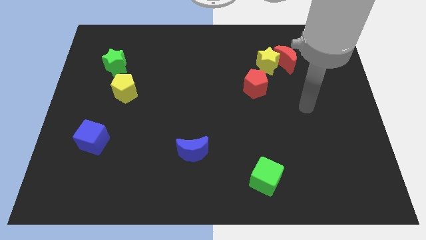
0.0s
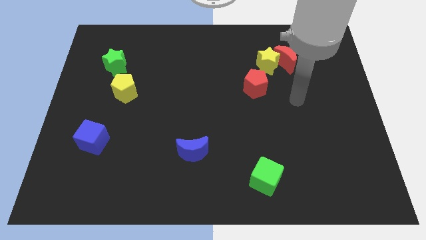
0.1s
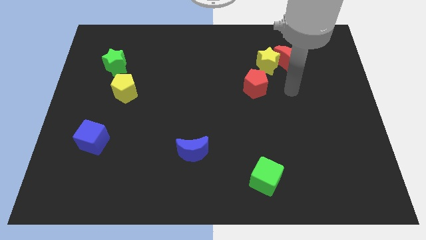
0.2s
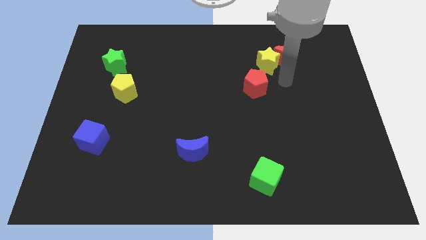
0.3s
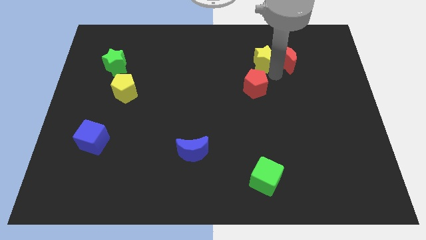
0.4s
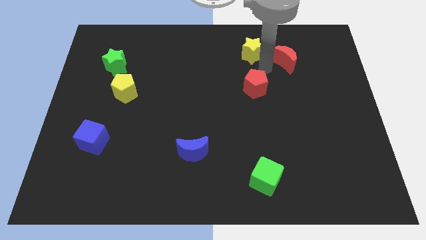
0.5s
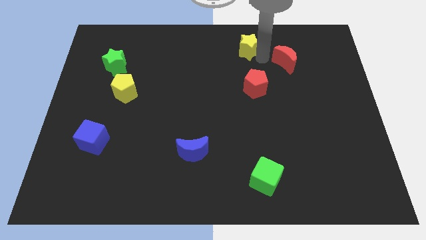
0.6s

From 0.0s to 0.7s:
separate the red moon from the yellow star

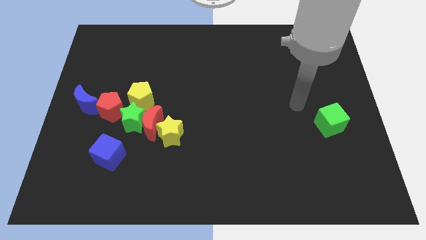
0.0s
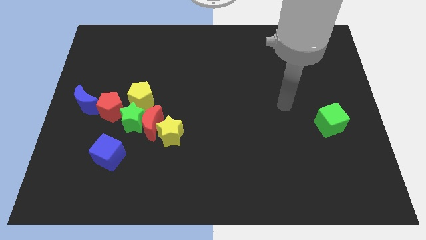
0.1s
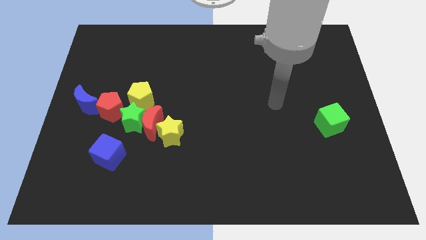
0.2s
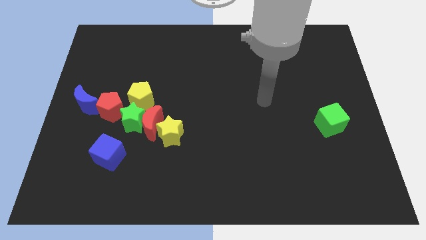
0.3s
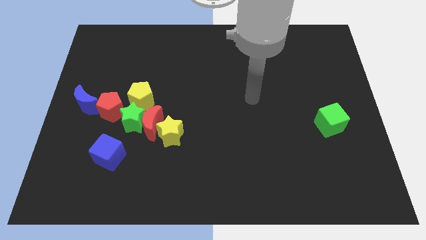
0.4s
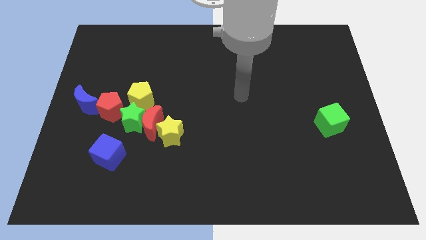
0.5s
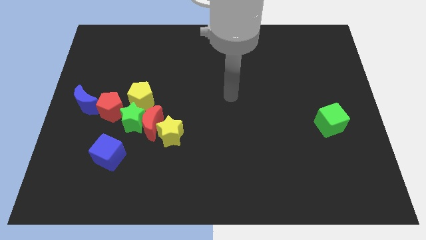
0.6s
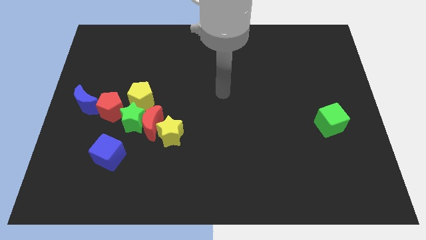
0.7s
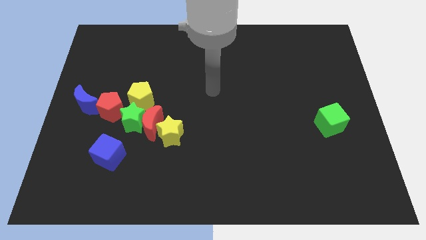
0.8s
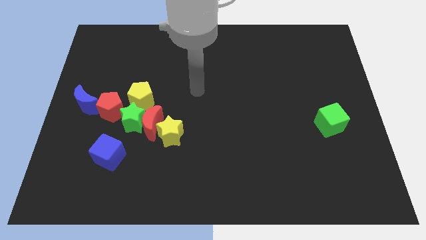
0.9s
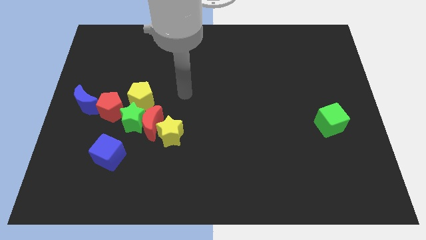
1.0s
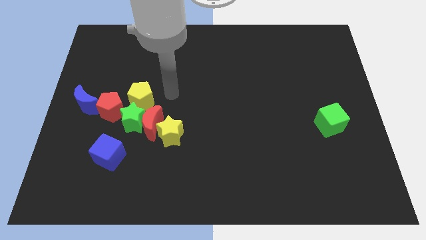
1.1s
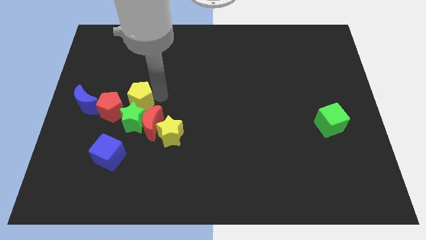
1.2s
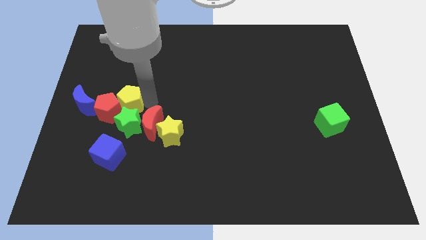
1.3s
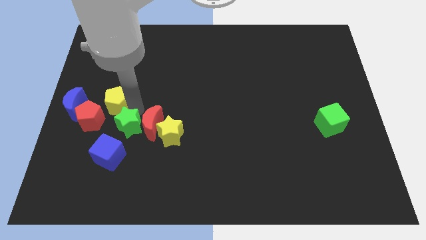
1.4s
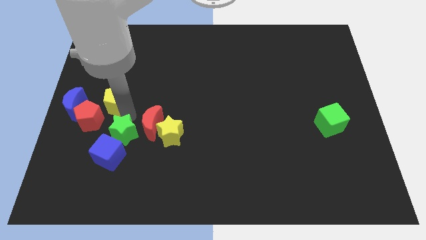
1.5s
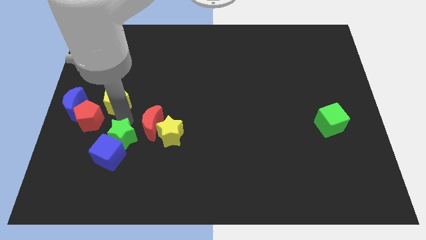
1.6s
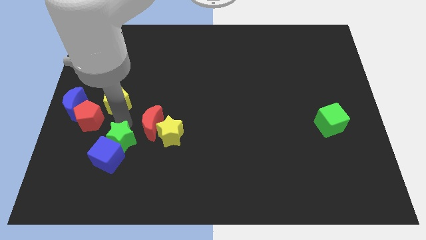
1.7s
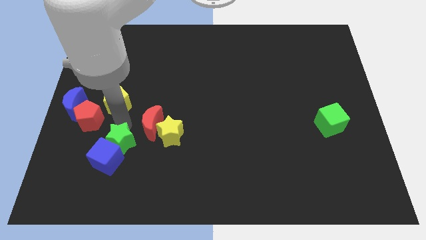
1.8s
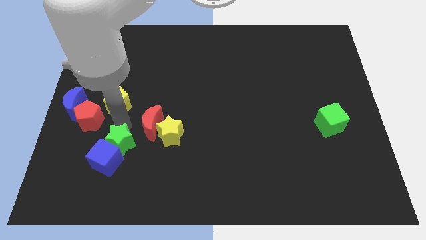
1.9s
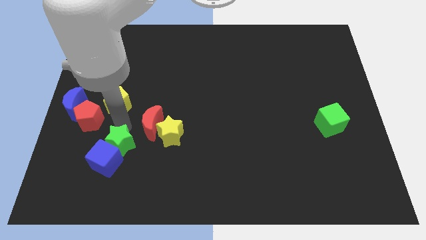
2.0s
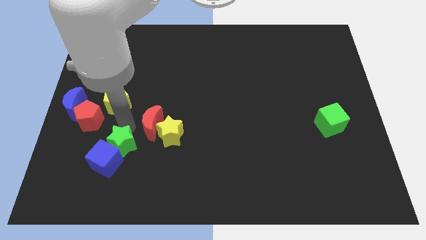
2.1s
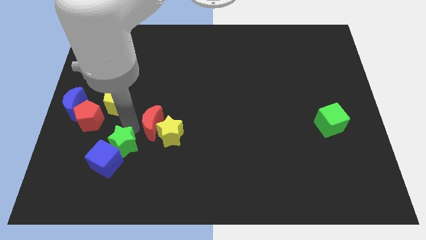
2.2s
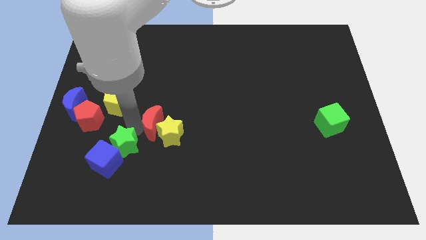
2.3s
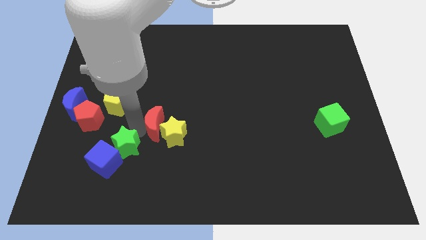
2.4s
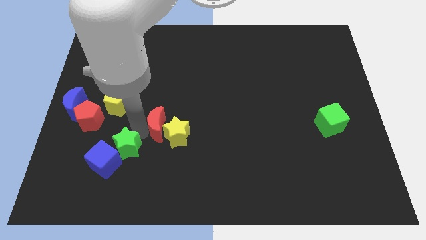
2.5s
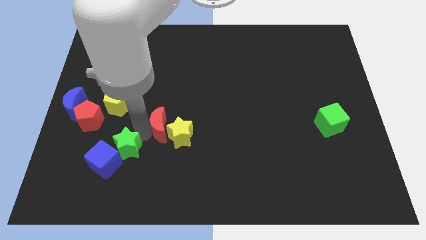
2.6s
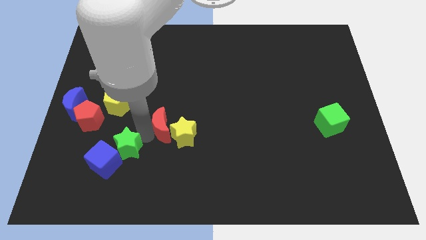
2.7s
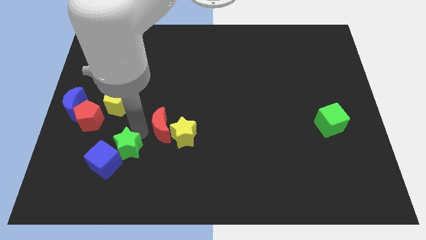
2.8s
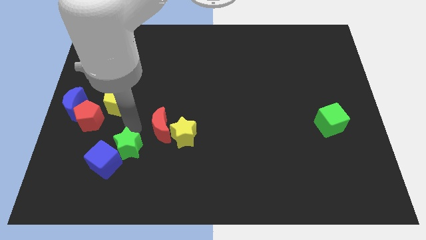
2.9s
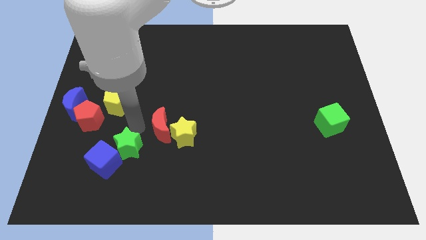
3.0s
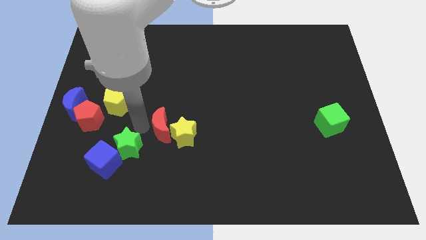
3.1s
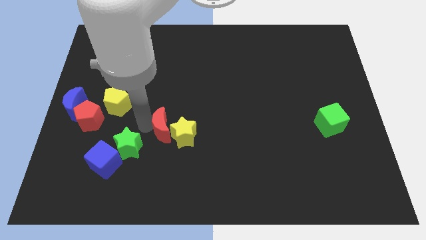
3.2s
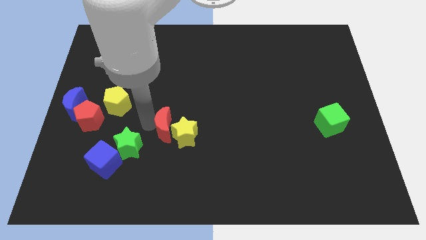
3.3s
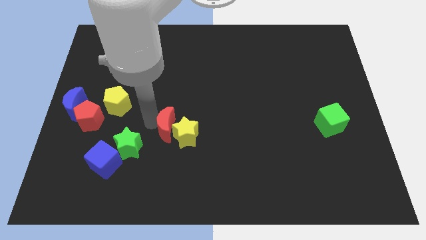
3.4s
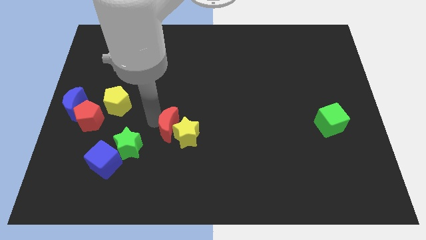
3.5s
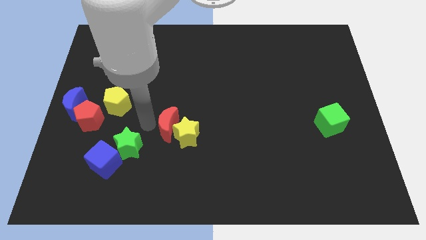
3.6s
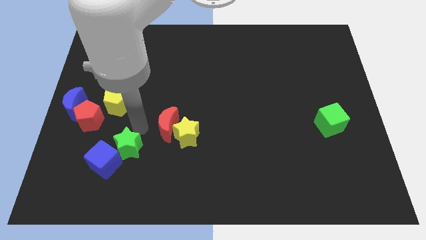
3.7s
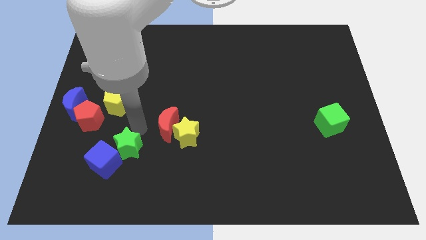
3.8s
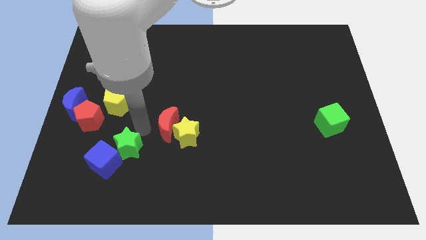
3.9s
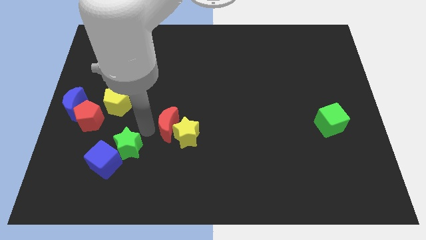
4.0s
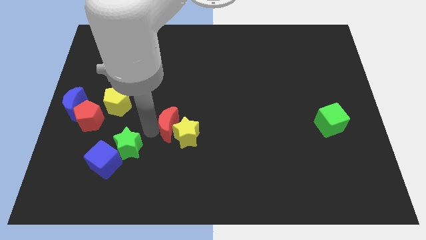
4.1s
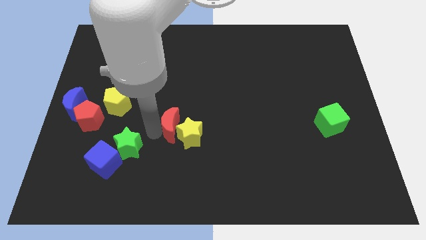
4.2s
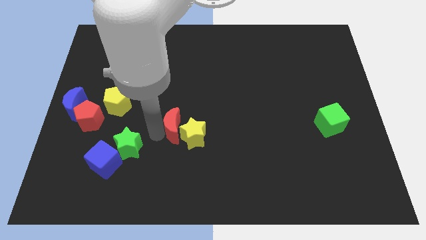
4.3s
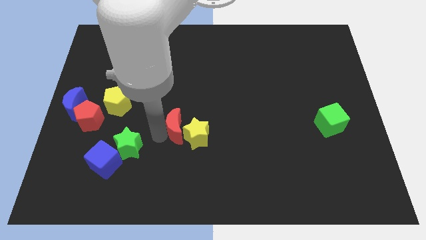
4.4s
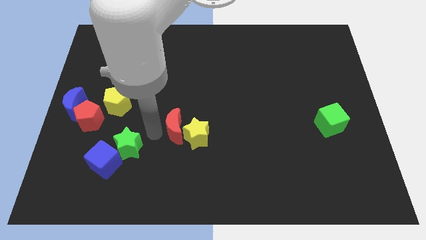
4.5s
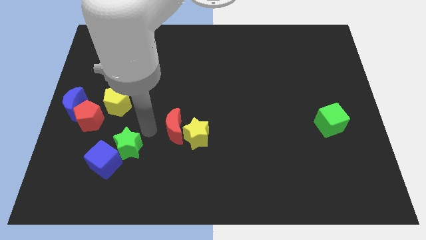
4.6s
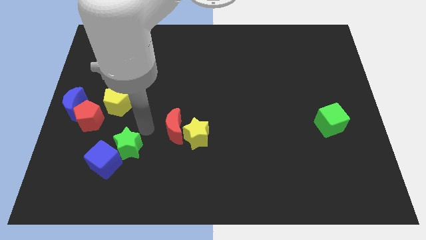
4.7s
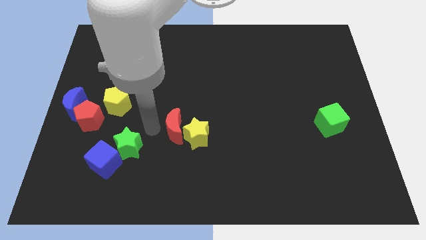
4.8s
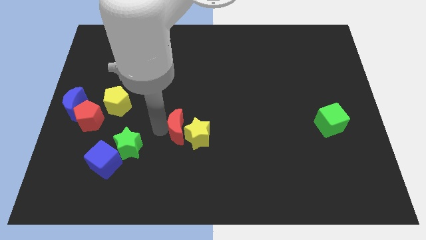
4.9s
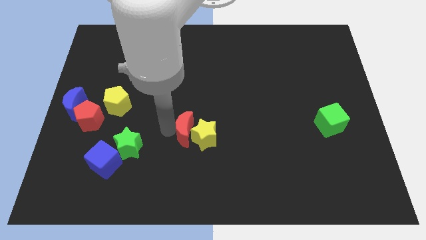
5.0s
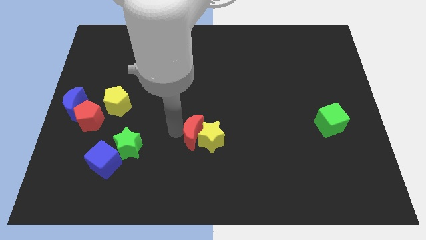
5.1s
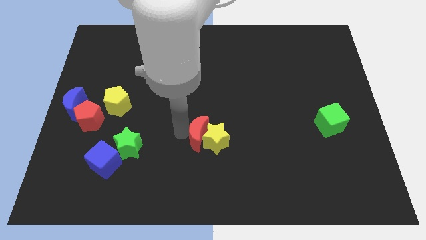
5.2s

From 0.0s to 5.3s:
separate the red moon from the green star, yellow star, and yellow pentagon

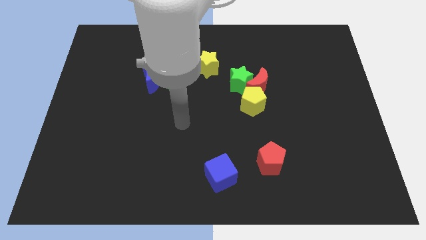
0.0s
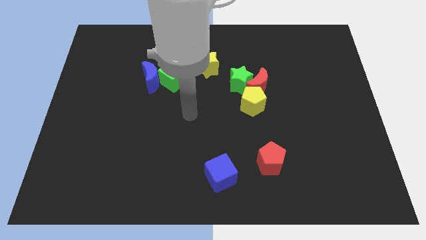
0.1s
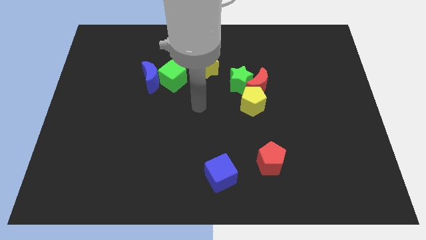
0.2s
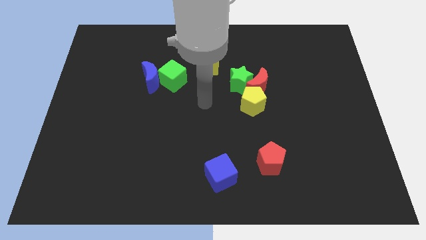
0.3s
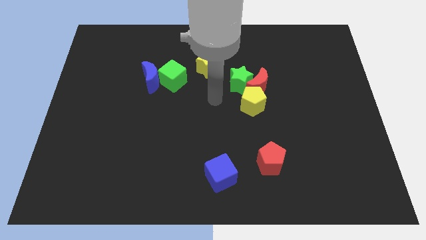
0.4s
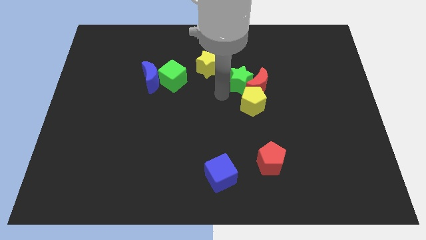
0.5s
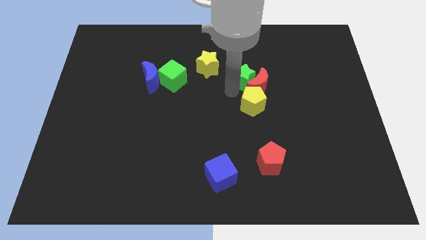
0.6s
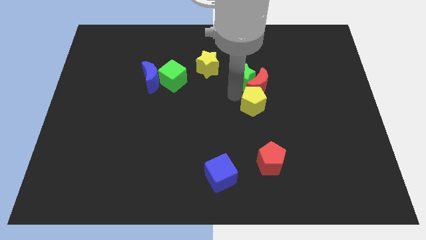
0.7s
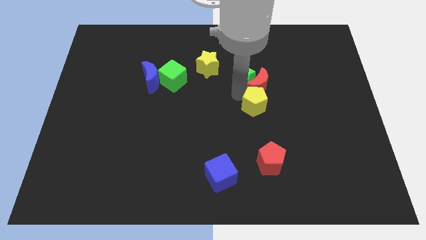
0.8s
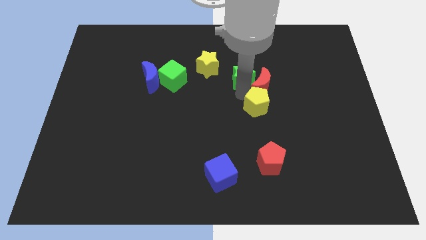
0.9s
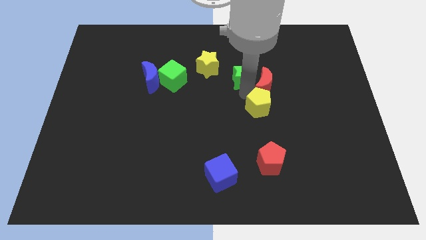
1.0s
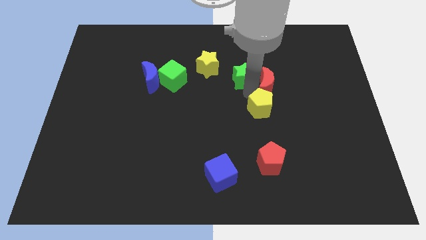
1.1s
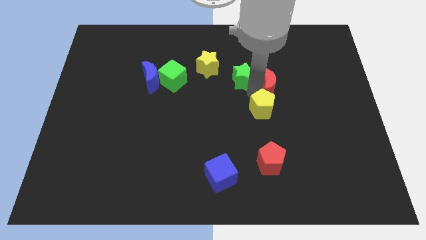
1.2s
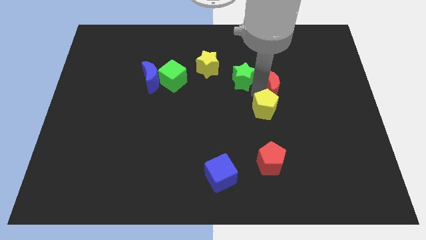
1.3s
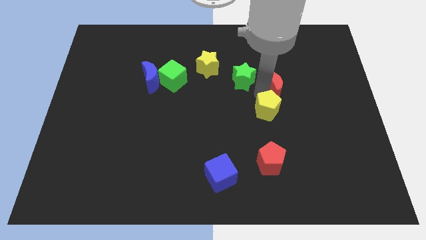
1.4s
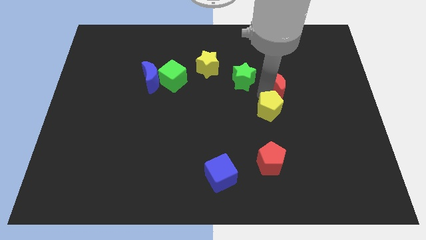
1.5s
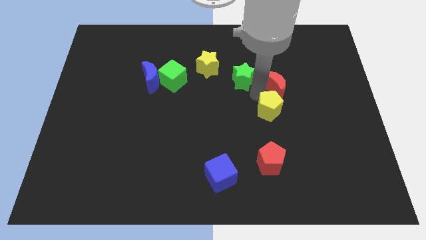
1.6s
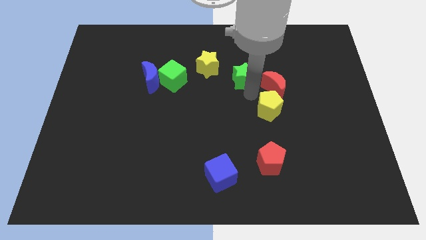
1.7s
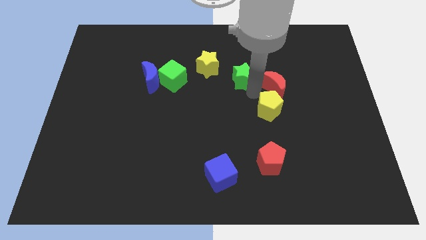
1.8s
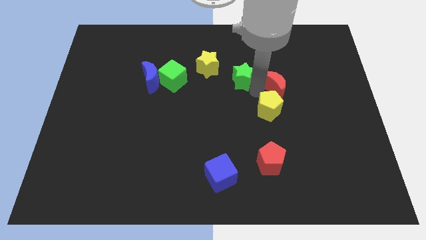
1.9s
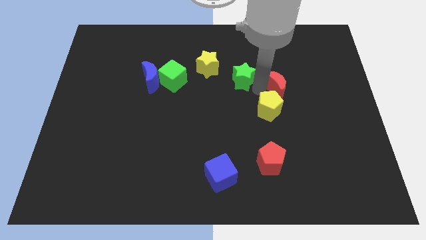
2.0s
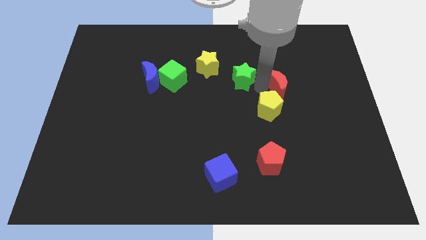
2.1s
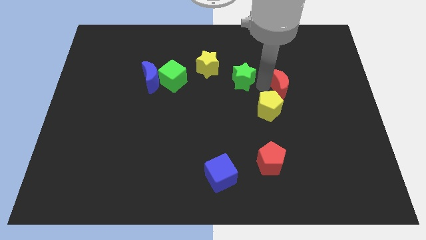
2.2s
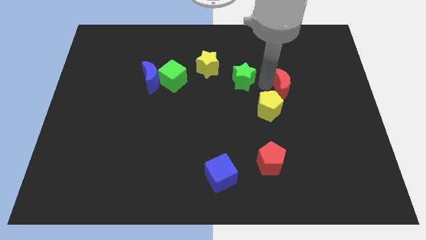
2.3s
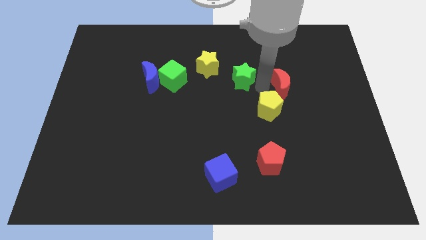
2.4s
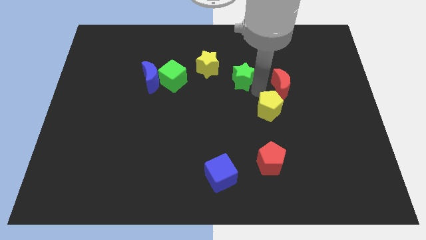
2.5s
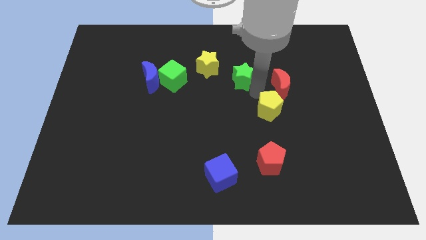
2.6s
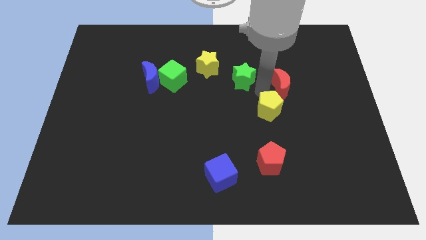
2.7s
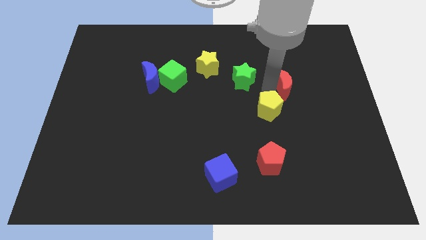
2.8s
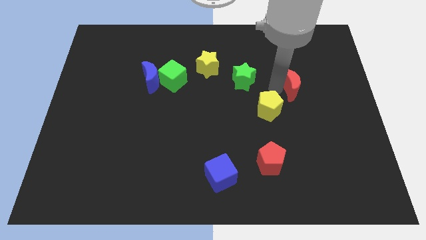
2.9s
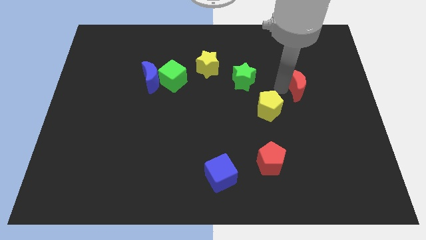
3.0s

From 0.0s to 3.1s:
separate the red moon from the green star and yellow pentagon

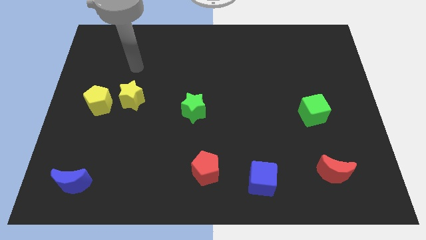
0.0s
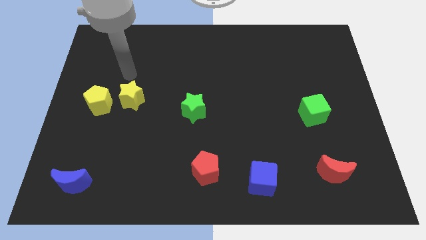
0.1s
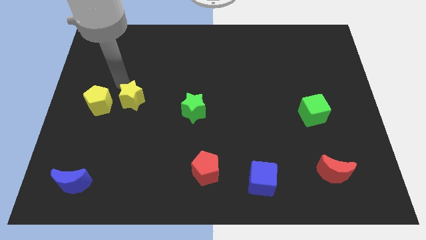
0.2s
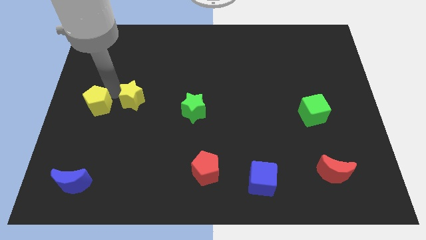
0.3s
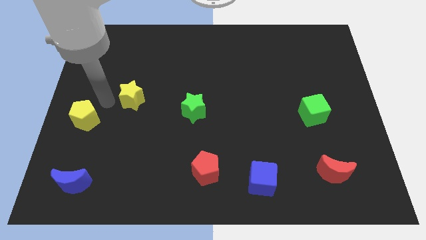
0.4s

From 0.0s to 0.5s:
separate the yellow star from the yellow pentagon
